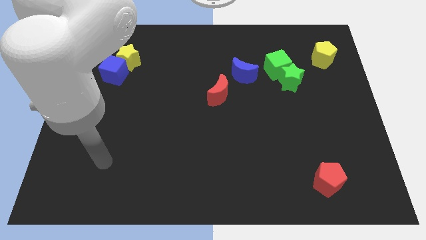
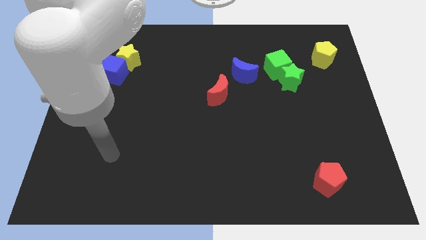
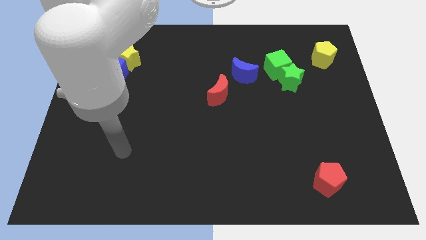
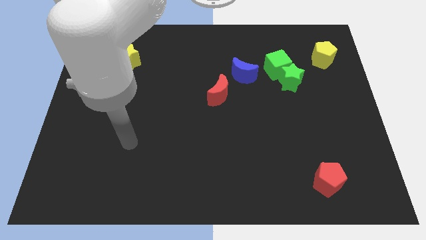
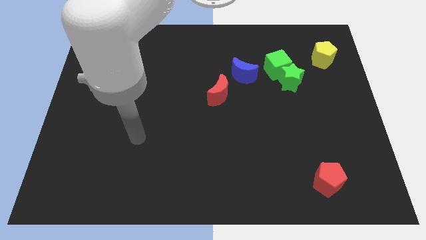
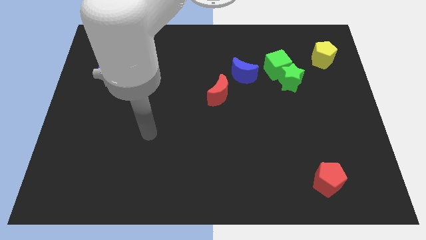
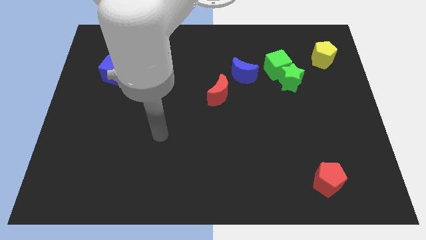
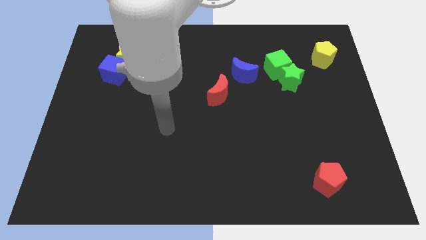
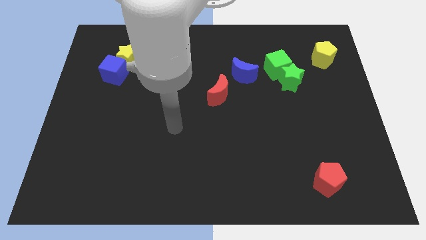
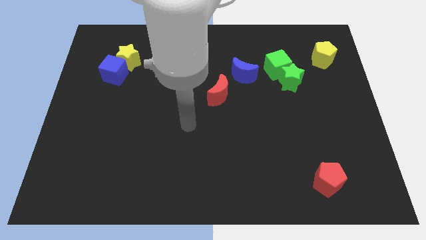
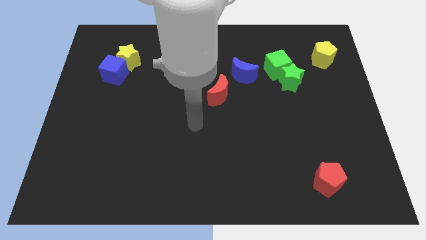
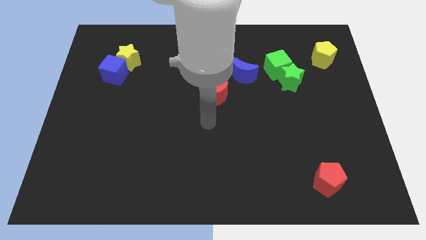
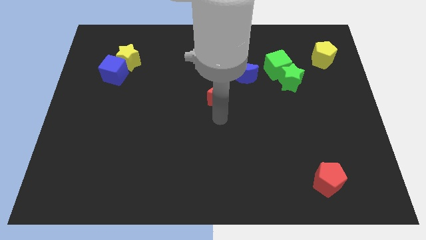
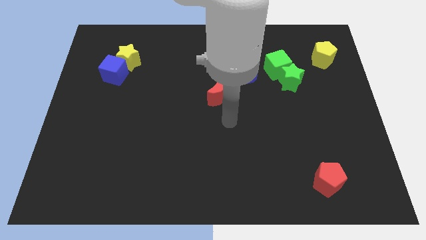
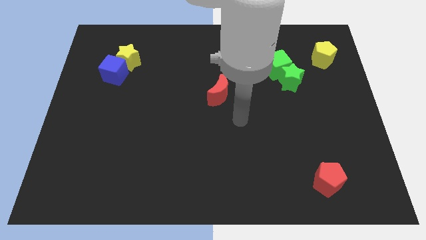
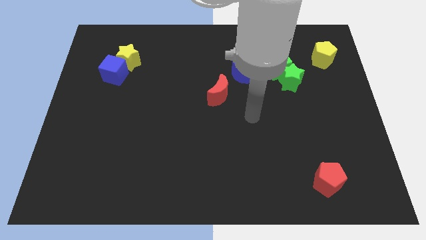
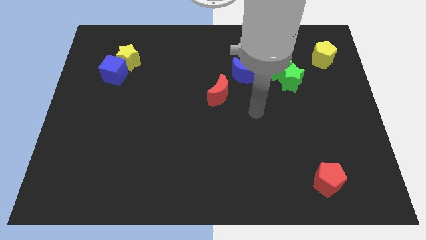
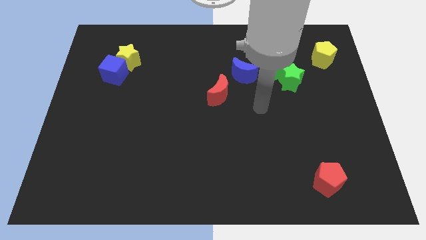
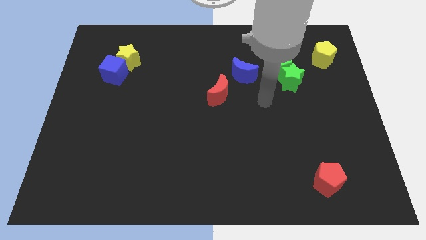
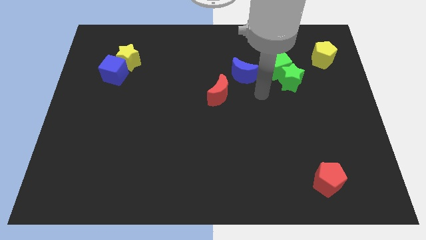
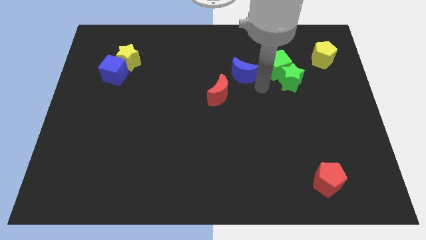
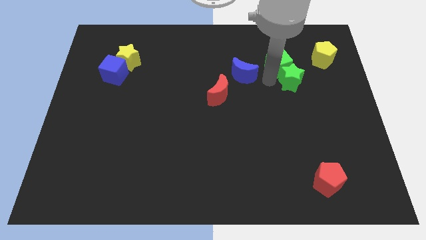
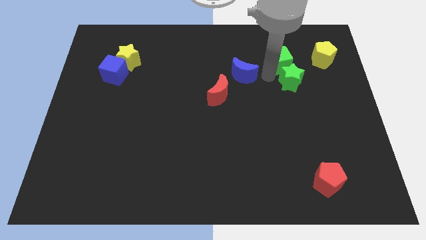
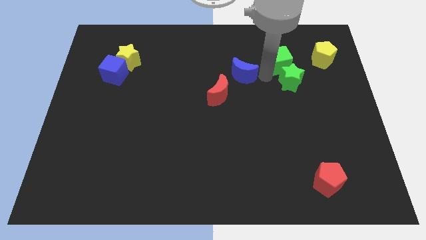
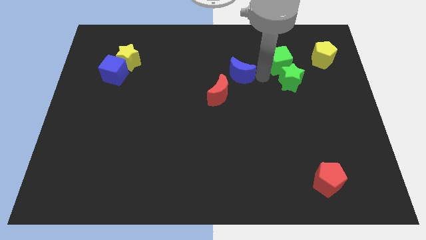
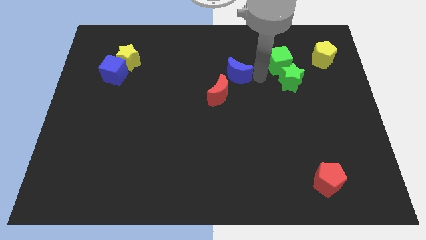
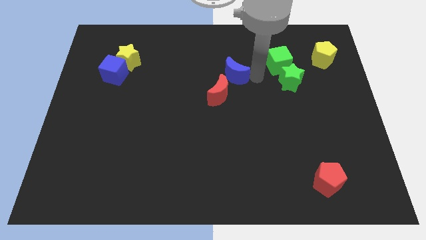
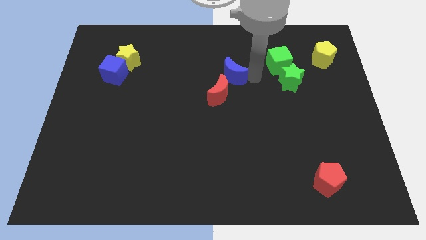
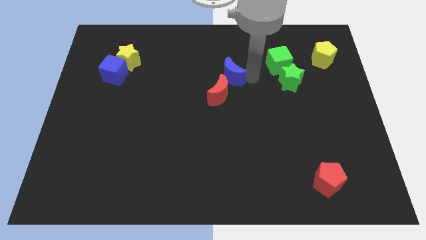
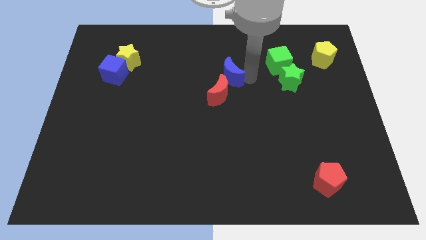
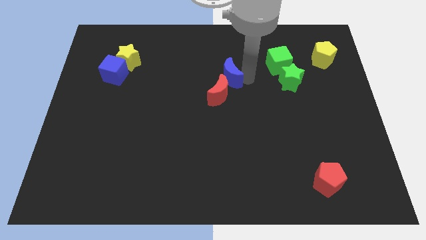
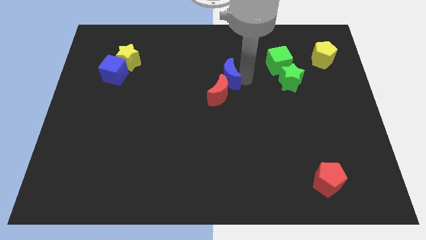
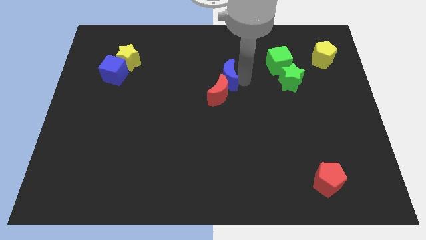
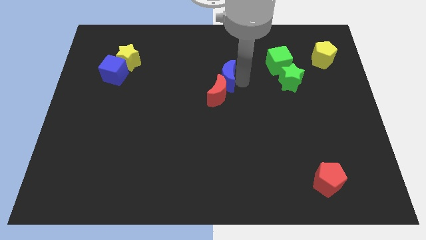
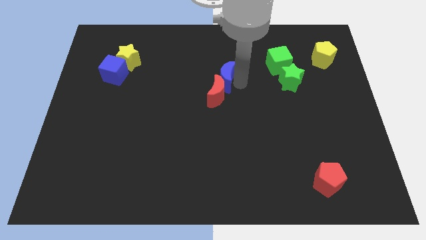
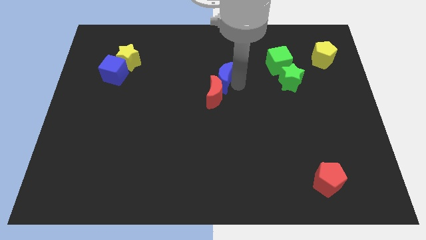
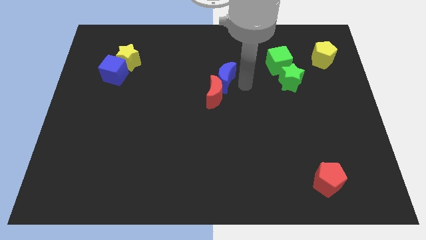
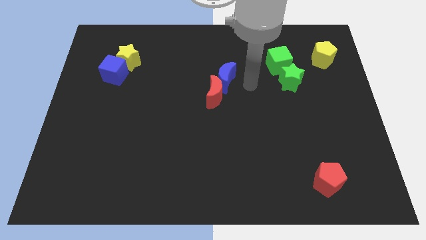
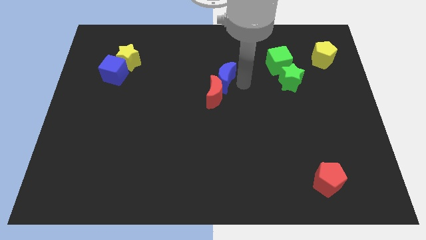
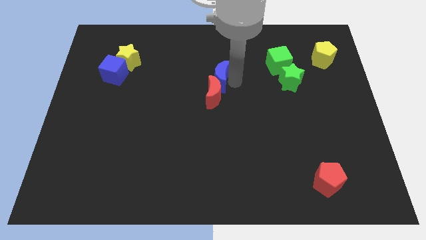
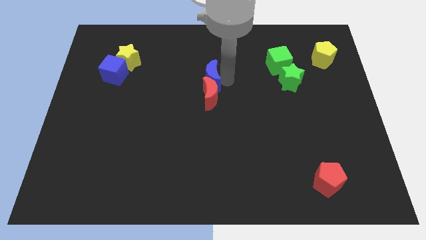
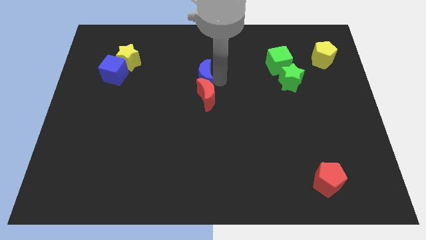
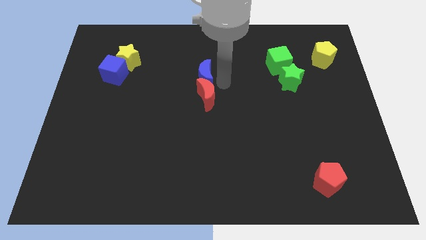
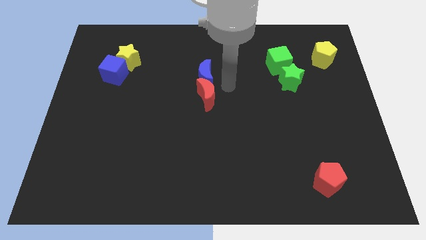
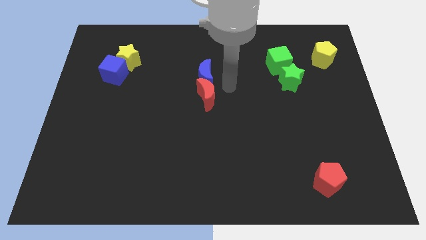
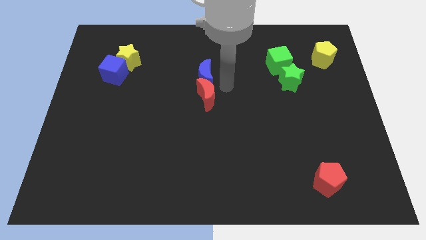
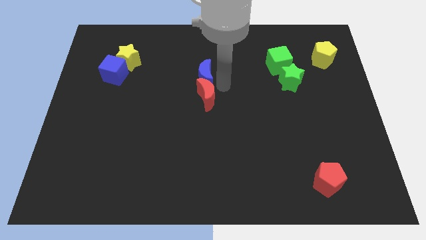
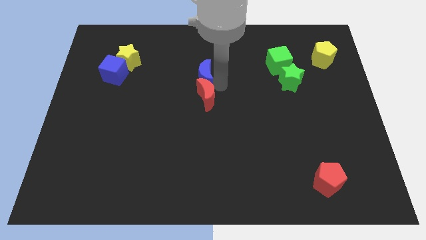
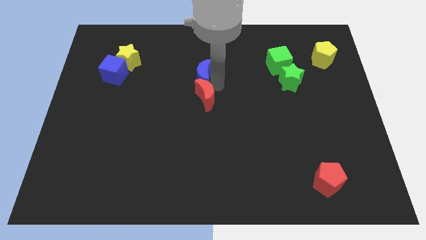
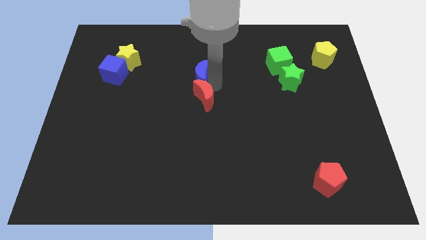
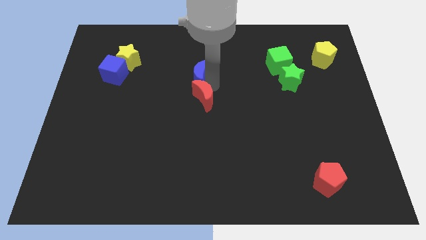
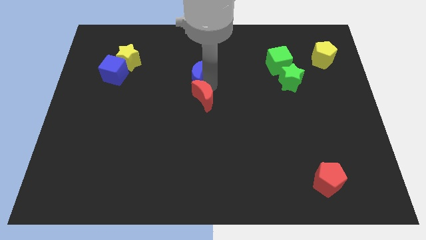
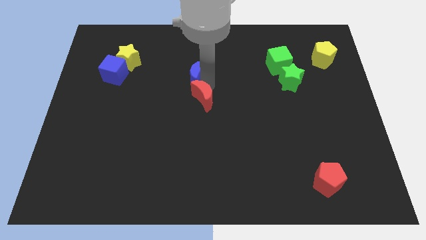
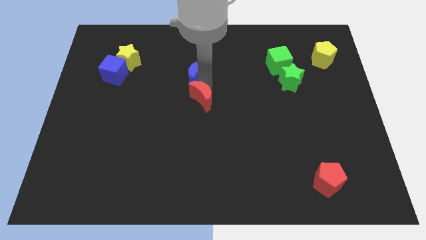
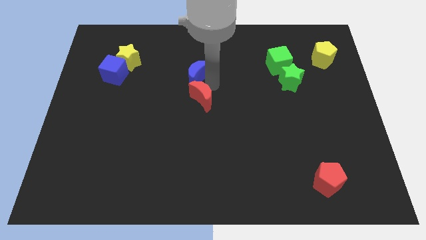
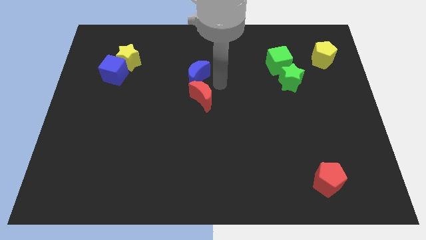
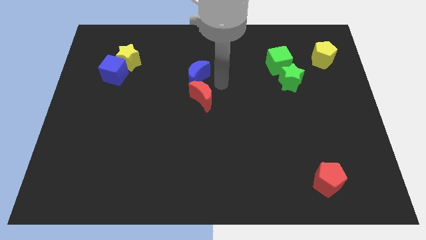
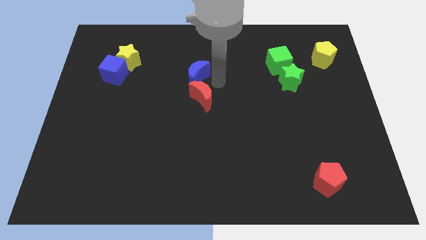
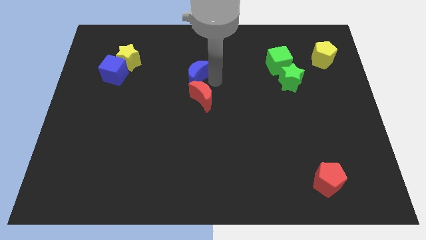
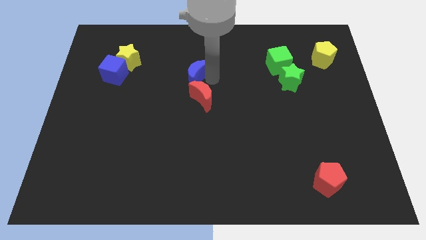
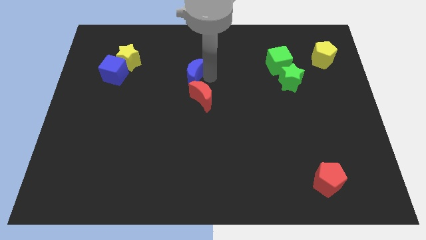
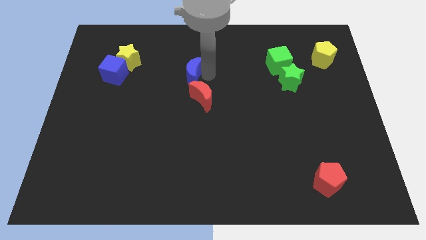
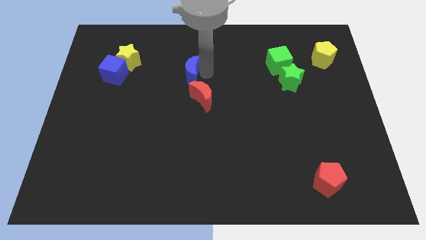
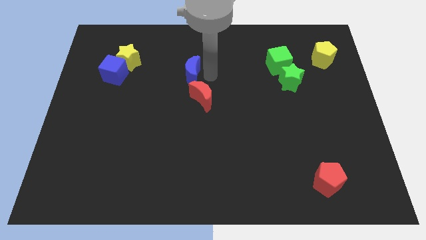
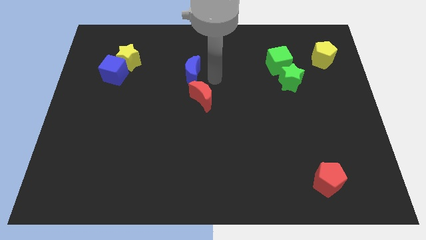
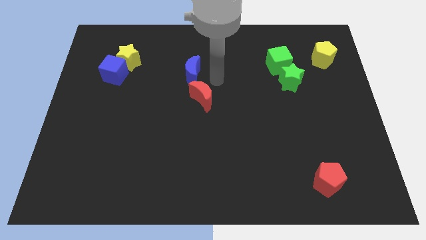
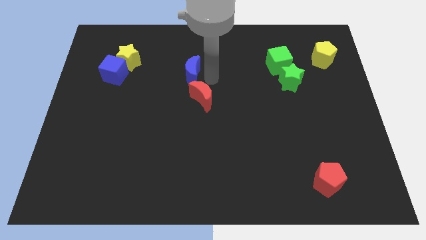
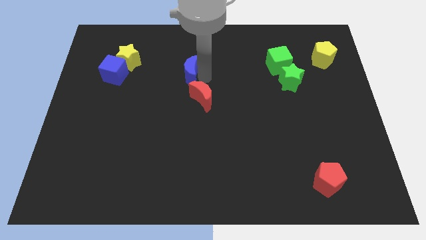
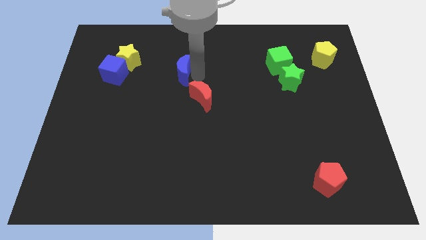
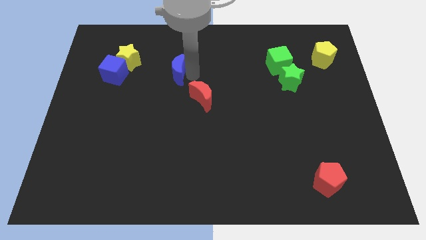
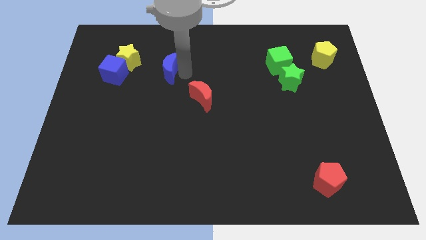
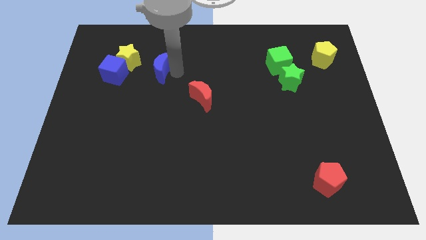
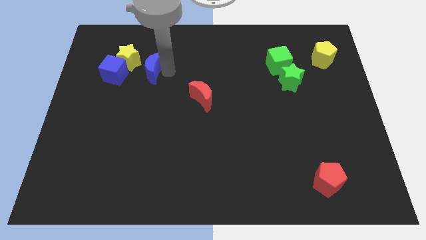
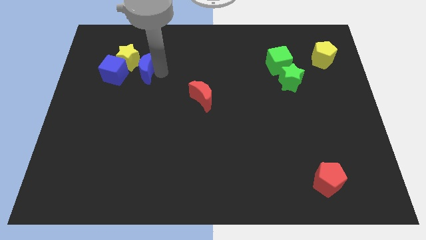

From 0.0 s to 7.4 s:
move the blue moon next to the yellow star

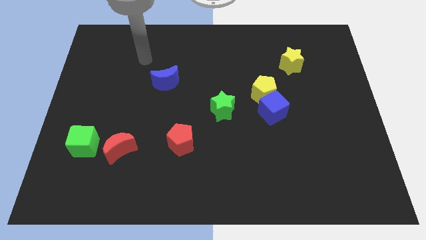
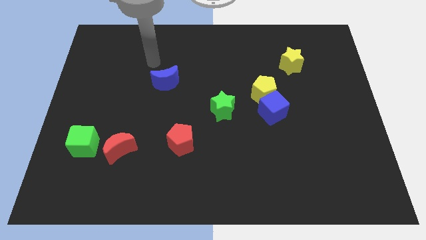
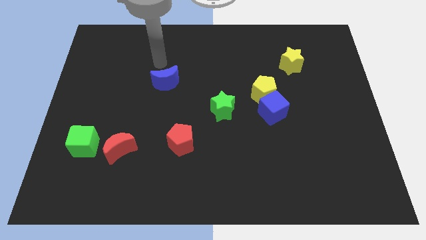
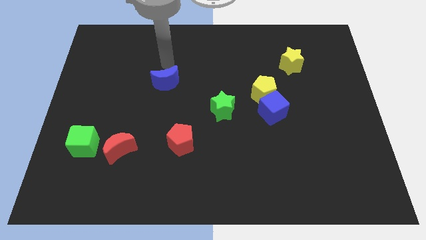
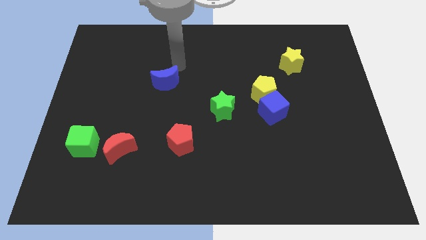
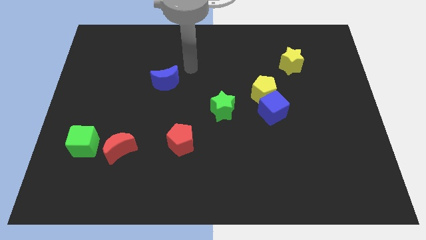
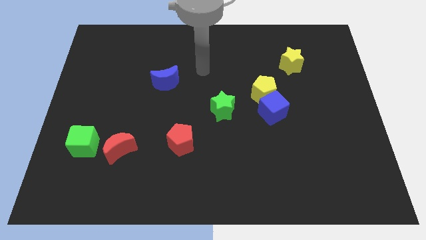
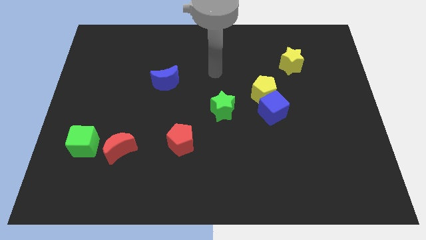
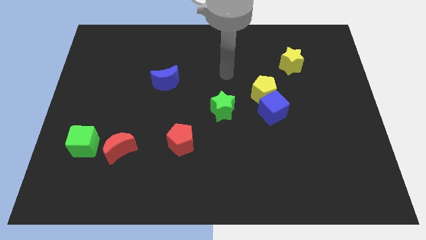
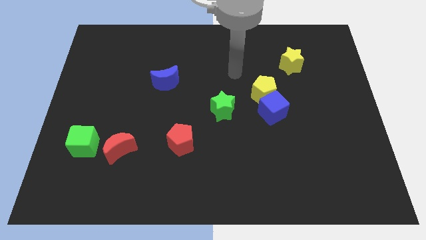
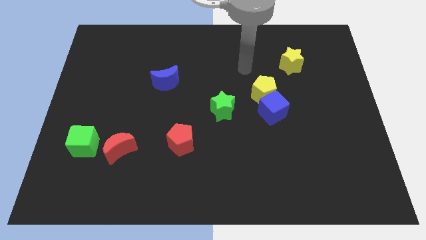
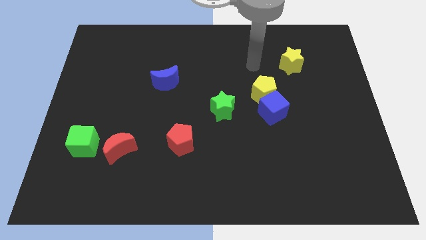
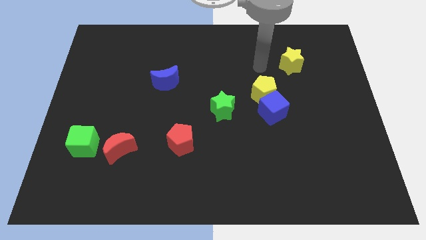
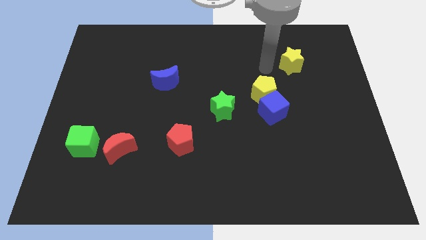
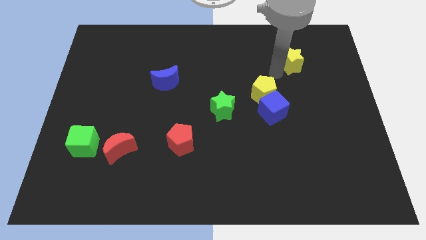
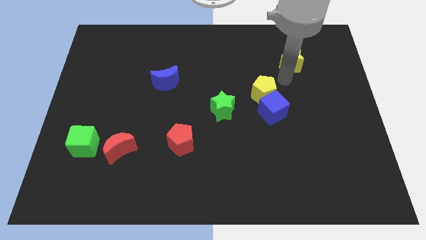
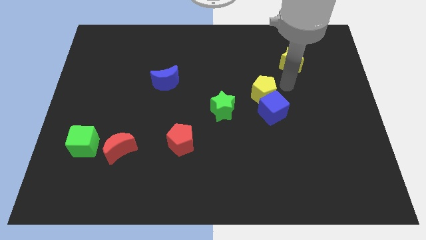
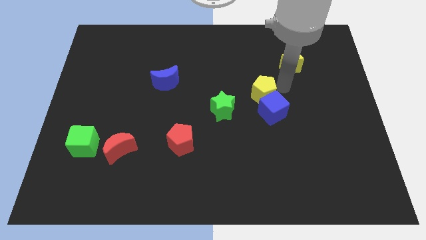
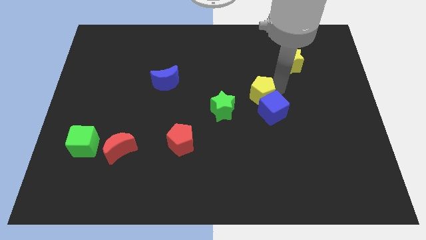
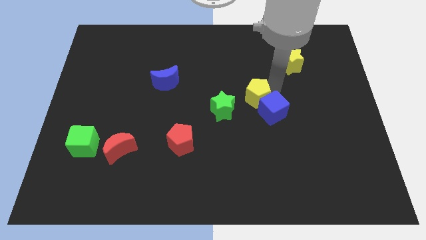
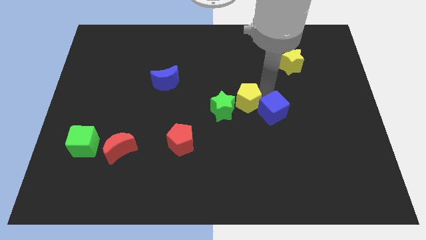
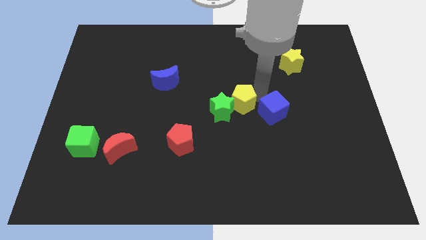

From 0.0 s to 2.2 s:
put the yellow pentagon close to the green star
